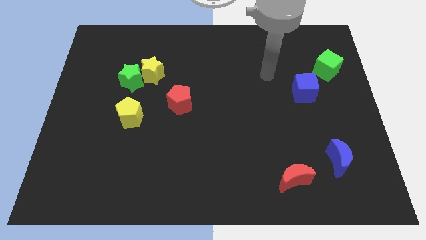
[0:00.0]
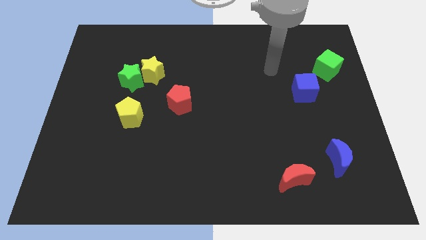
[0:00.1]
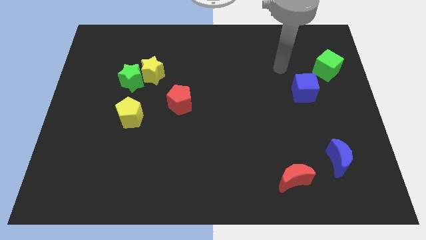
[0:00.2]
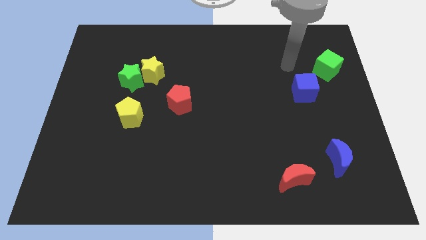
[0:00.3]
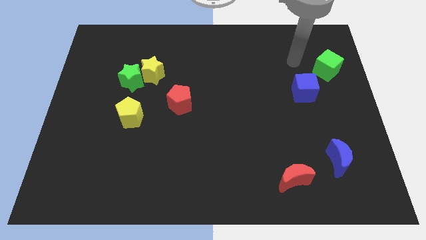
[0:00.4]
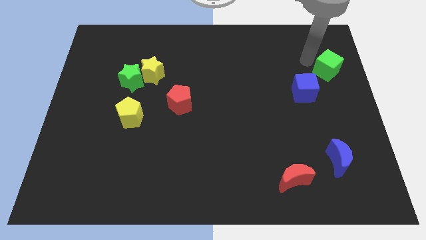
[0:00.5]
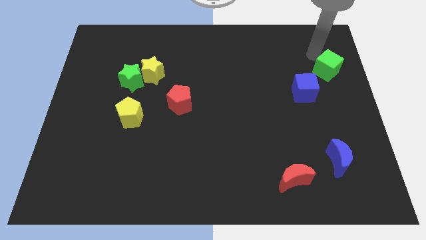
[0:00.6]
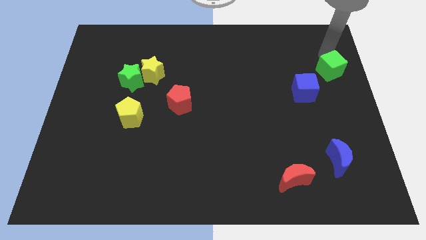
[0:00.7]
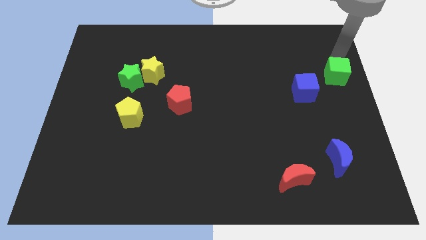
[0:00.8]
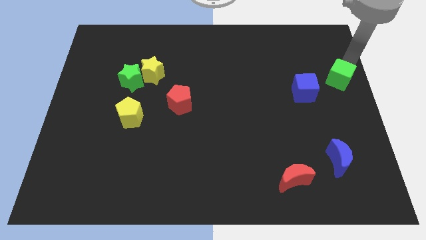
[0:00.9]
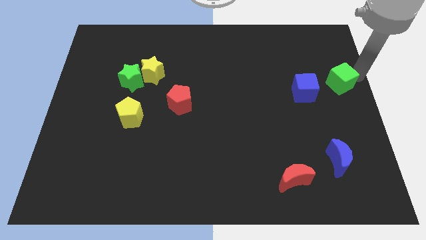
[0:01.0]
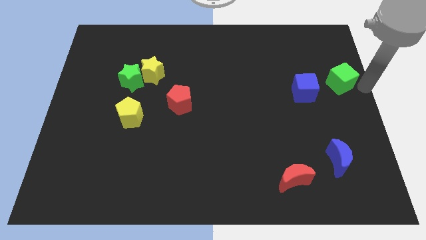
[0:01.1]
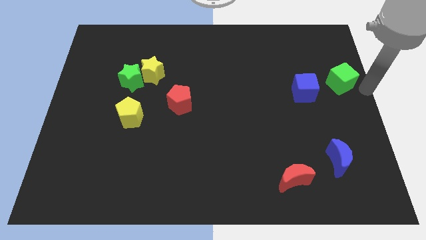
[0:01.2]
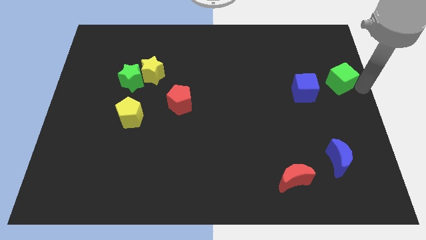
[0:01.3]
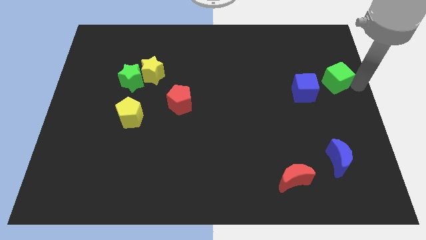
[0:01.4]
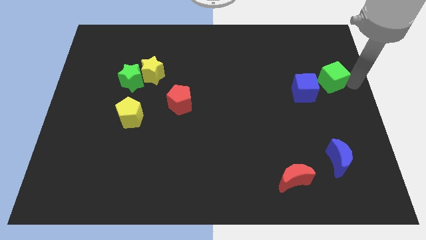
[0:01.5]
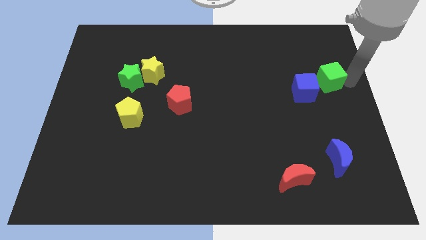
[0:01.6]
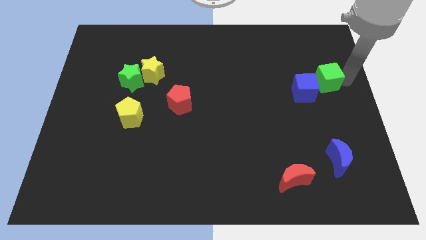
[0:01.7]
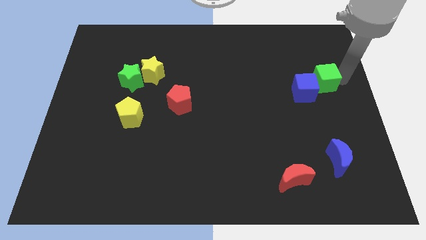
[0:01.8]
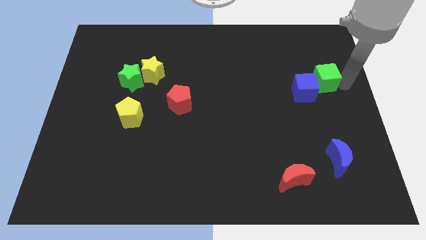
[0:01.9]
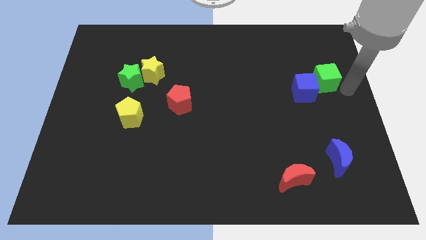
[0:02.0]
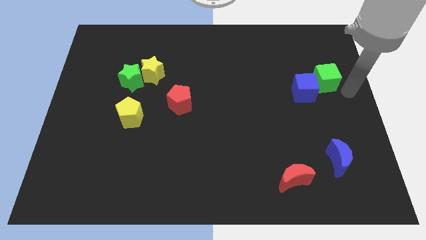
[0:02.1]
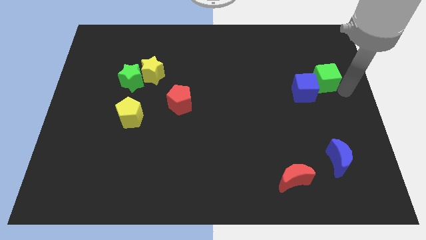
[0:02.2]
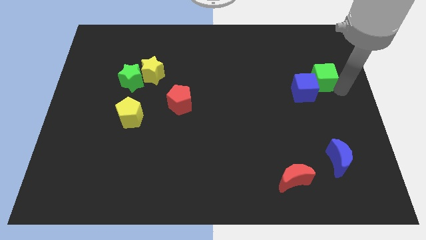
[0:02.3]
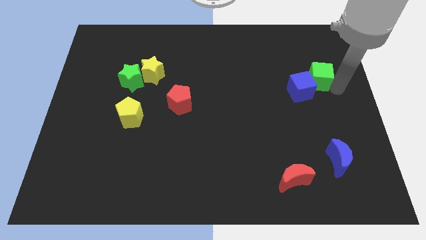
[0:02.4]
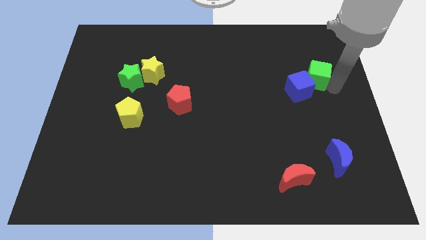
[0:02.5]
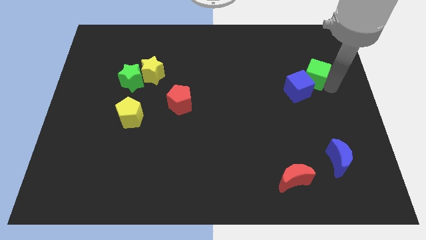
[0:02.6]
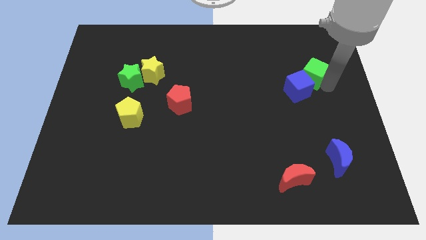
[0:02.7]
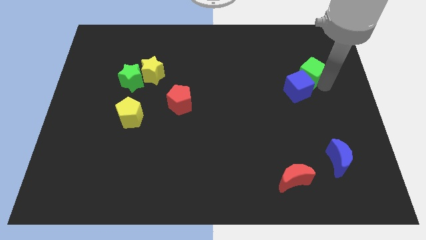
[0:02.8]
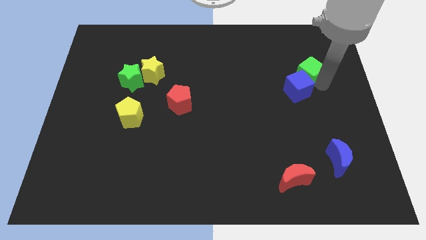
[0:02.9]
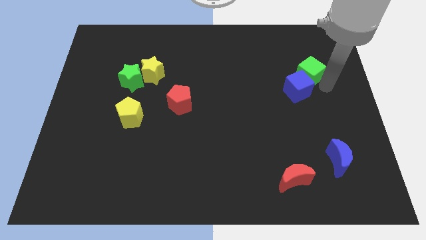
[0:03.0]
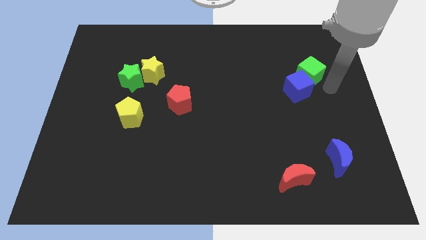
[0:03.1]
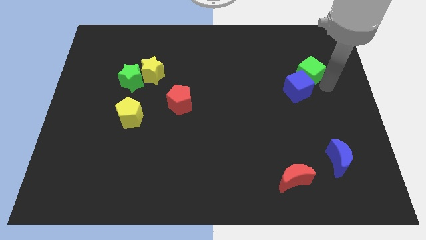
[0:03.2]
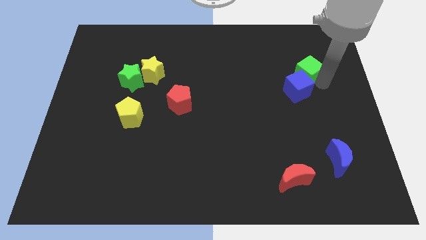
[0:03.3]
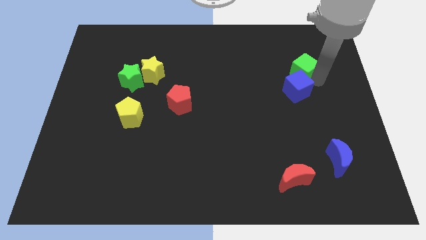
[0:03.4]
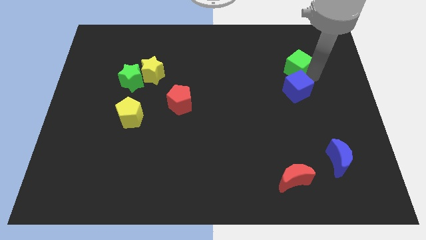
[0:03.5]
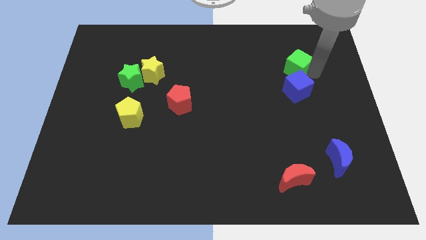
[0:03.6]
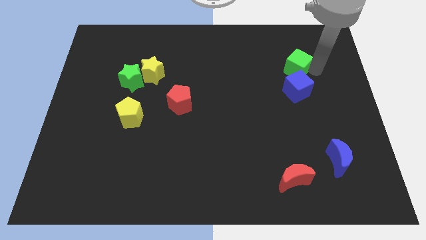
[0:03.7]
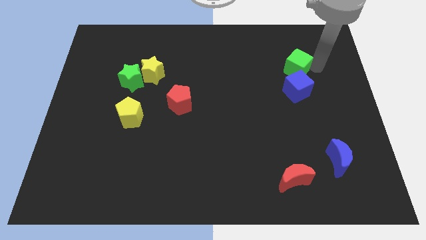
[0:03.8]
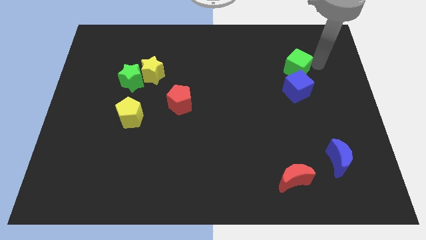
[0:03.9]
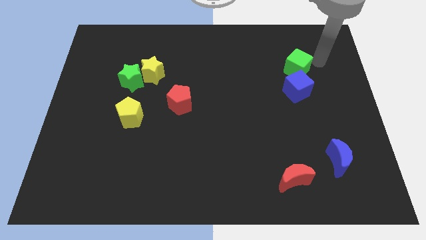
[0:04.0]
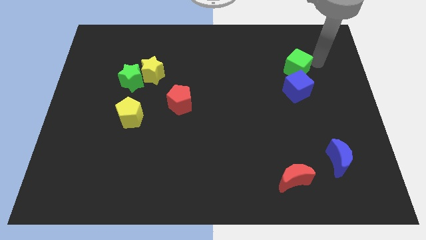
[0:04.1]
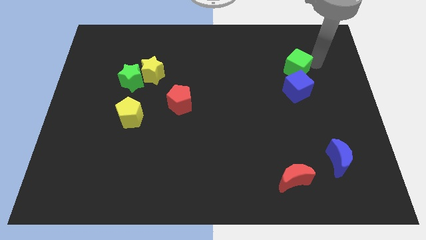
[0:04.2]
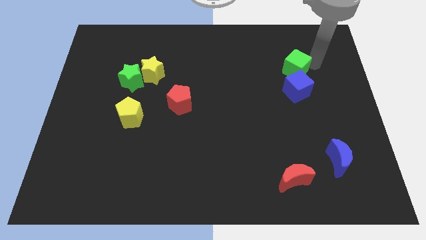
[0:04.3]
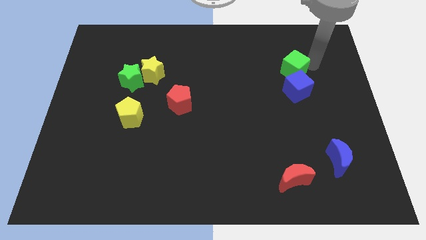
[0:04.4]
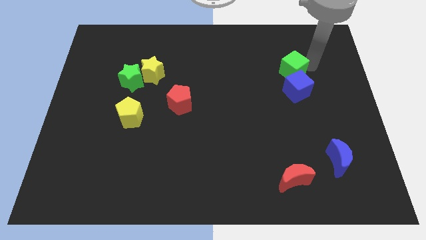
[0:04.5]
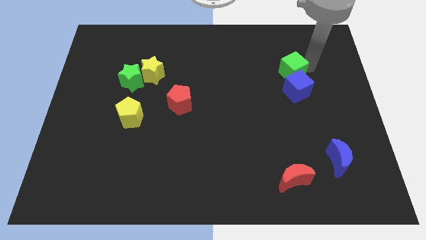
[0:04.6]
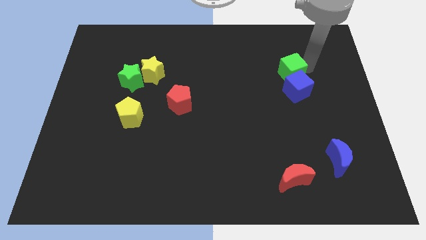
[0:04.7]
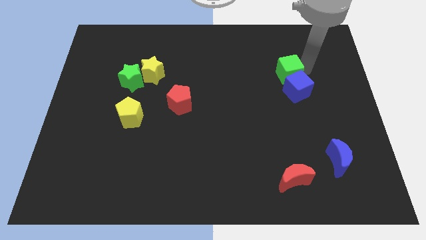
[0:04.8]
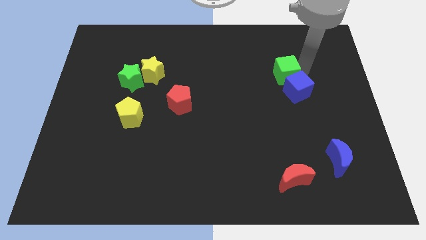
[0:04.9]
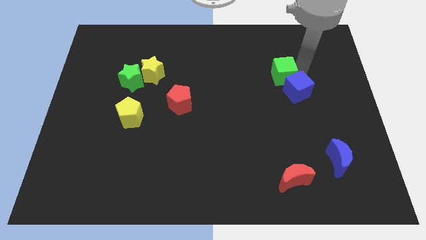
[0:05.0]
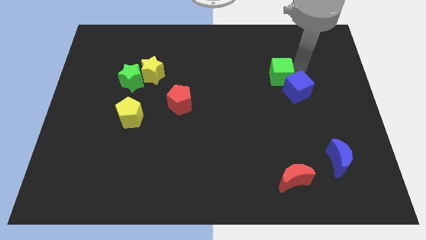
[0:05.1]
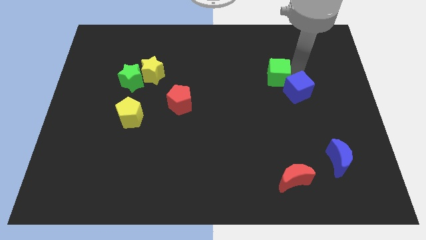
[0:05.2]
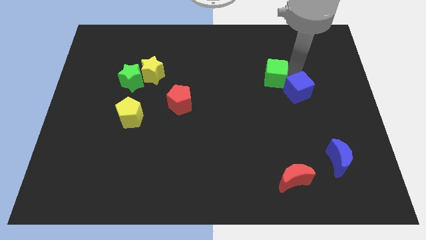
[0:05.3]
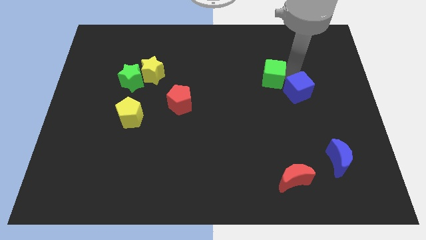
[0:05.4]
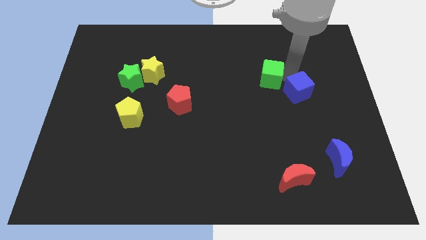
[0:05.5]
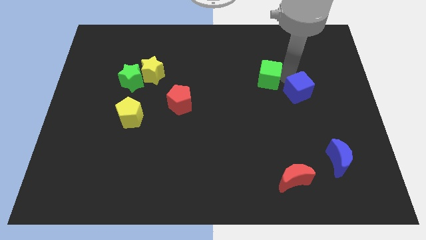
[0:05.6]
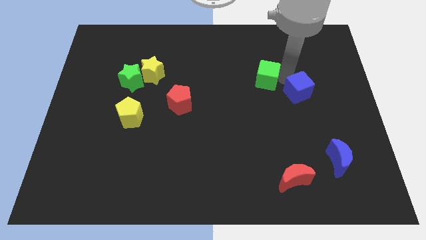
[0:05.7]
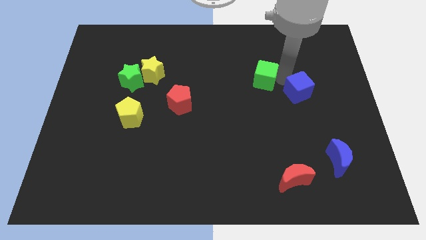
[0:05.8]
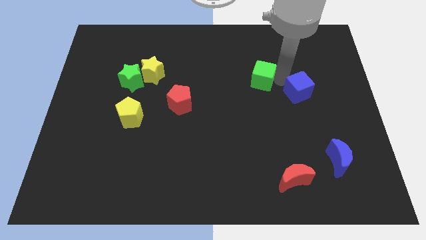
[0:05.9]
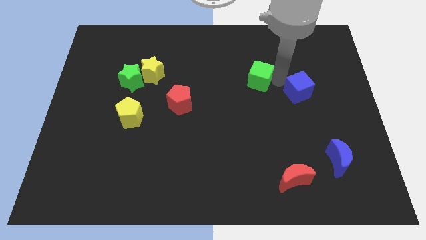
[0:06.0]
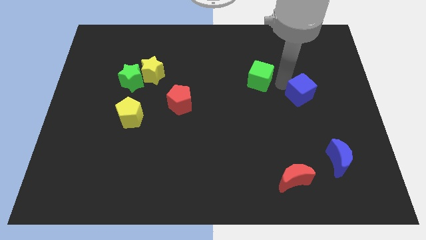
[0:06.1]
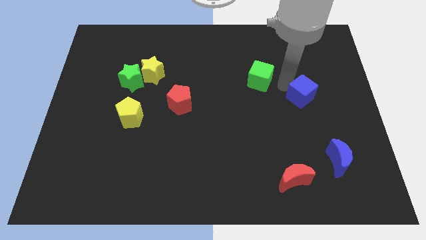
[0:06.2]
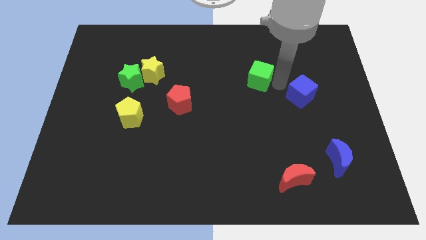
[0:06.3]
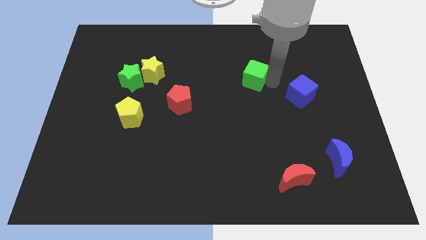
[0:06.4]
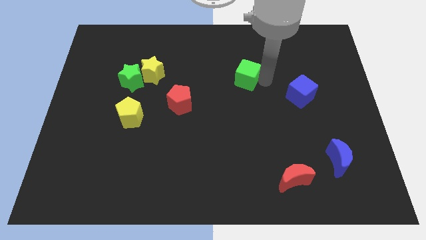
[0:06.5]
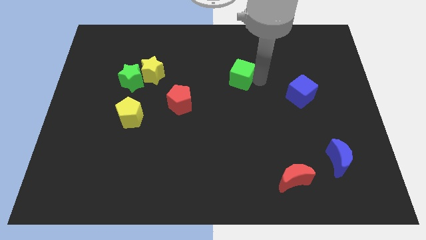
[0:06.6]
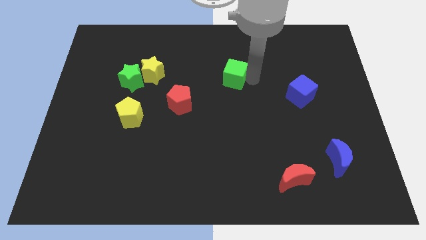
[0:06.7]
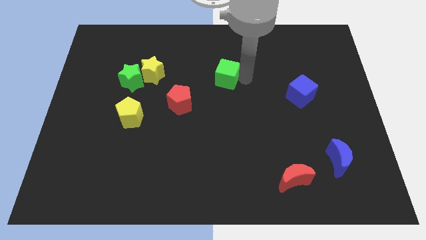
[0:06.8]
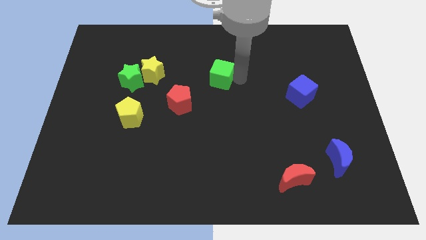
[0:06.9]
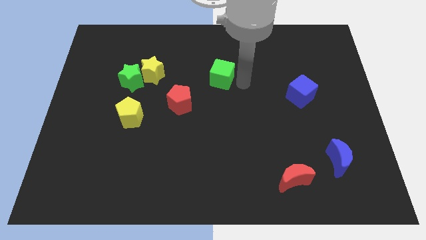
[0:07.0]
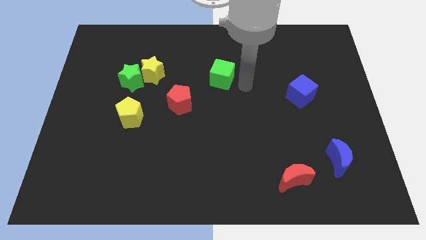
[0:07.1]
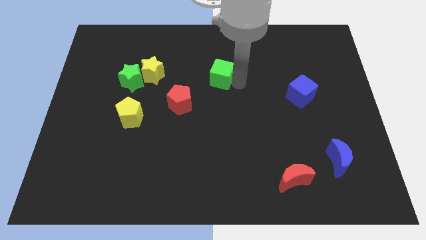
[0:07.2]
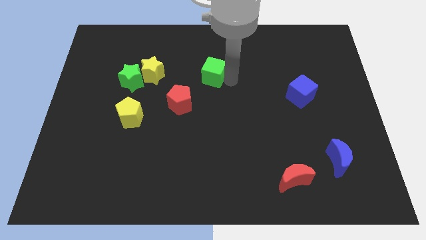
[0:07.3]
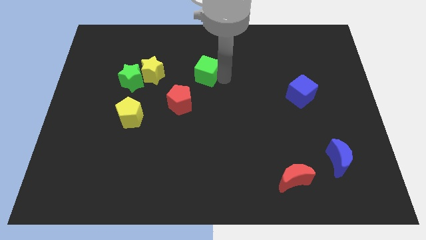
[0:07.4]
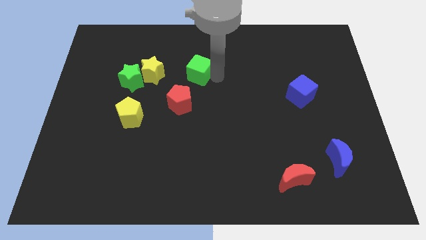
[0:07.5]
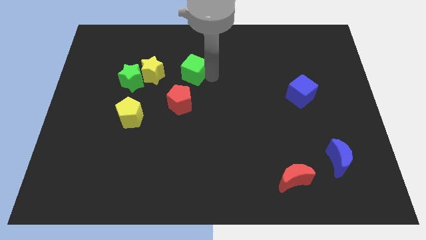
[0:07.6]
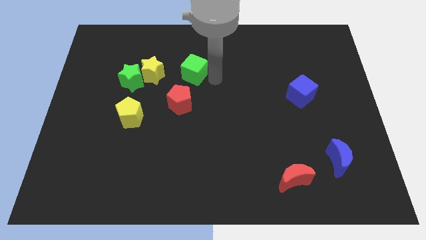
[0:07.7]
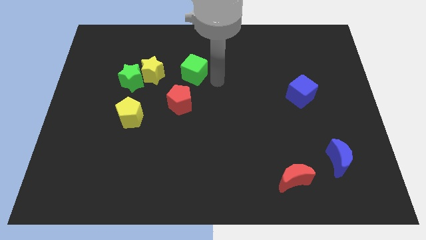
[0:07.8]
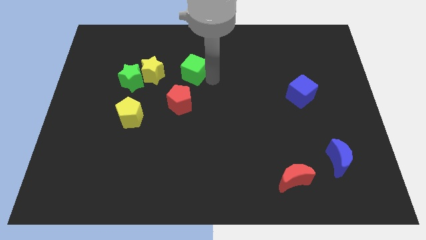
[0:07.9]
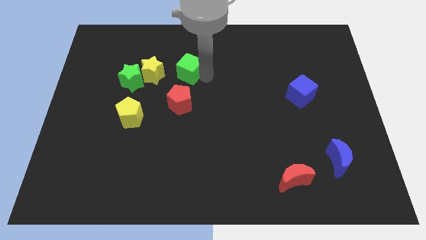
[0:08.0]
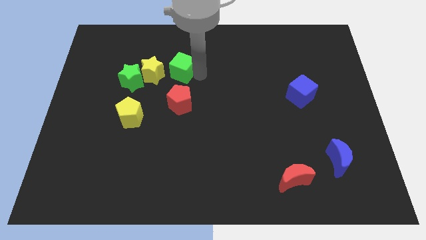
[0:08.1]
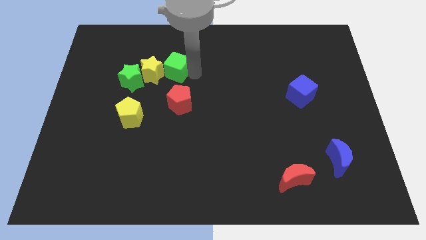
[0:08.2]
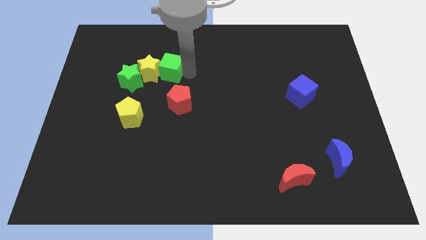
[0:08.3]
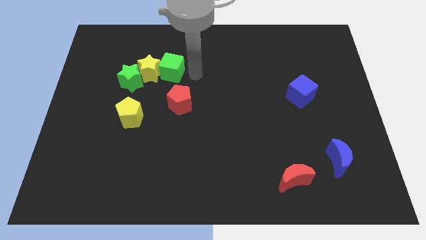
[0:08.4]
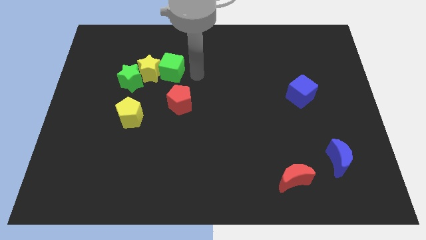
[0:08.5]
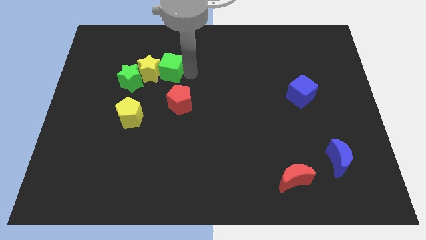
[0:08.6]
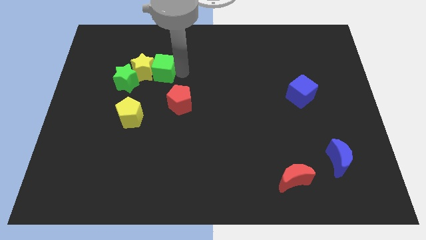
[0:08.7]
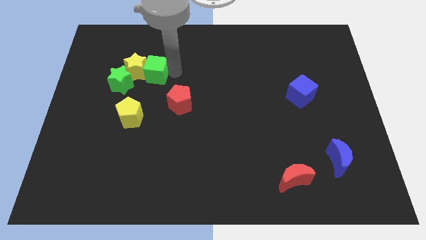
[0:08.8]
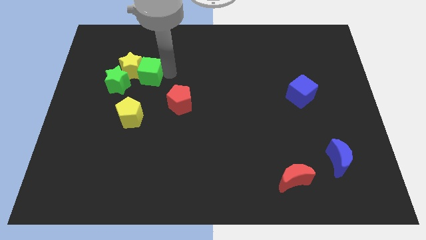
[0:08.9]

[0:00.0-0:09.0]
move the green cube above the yellow pentagon
